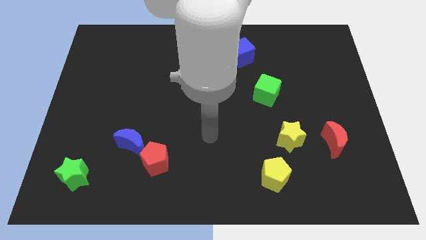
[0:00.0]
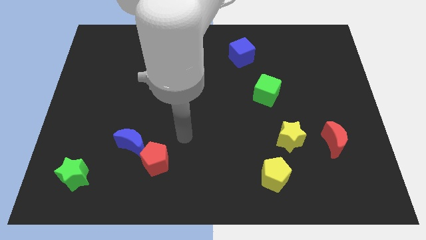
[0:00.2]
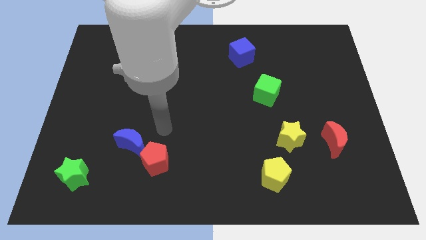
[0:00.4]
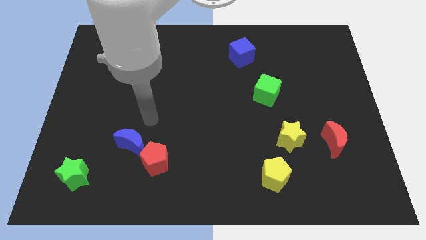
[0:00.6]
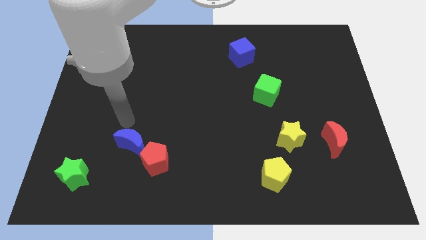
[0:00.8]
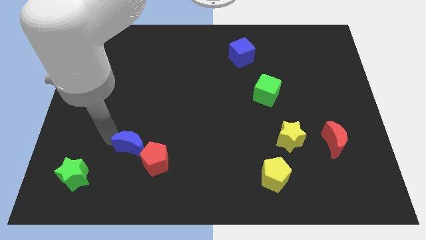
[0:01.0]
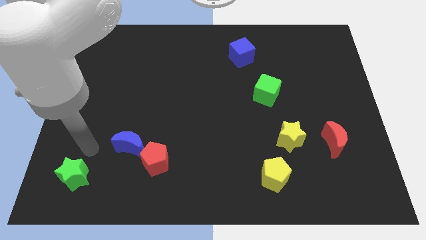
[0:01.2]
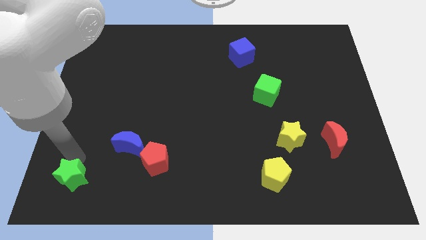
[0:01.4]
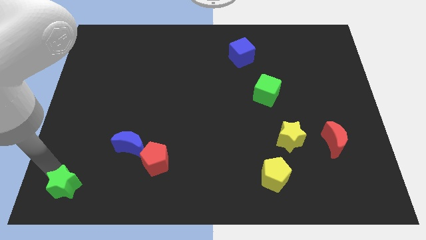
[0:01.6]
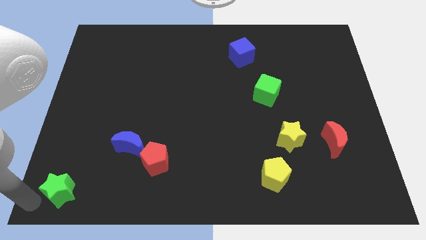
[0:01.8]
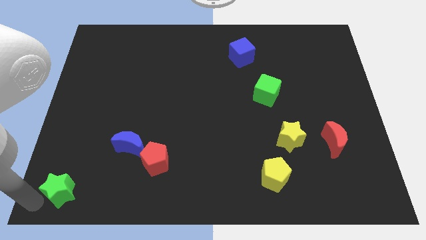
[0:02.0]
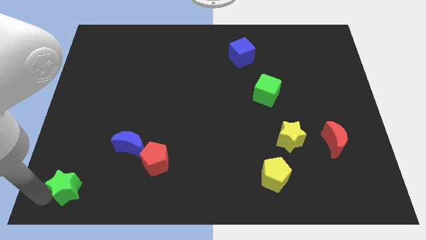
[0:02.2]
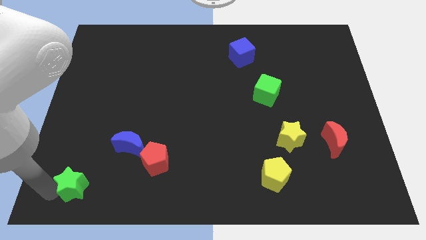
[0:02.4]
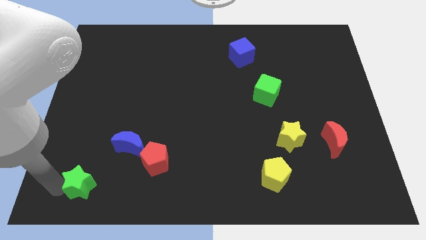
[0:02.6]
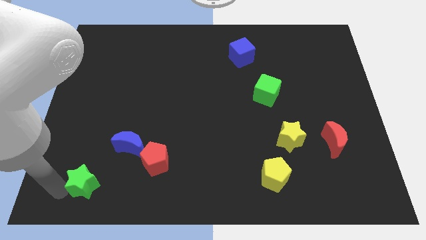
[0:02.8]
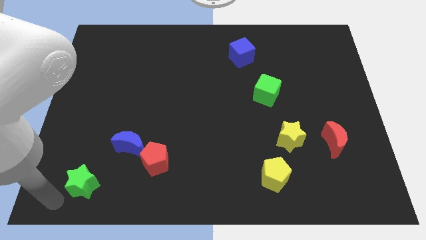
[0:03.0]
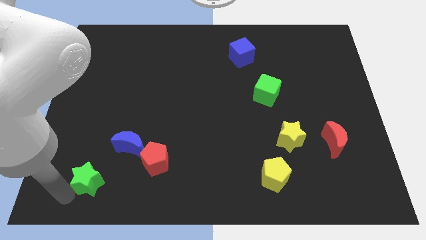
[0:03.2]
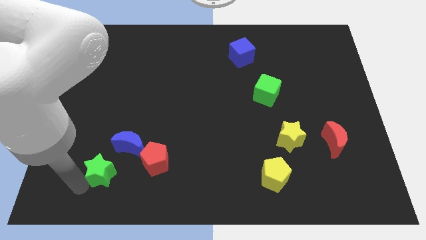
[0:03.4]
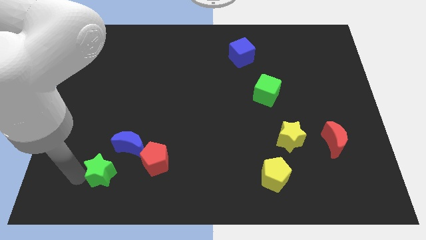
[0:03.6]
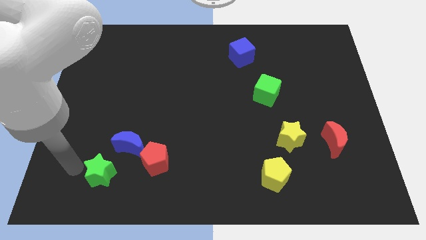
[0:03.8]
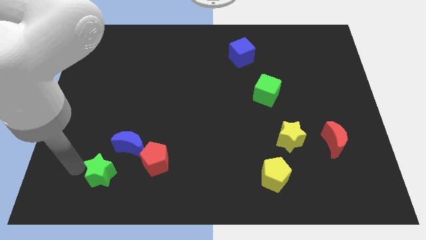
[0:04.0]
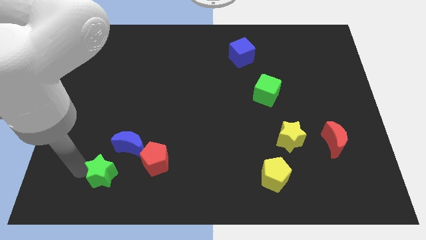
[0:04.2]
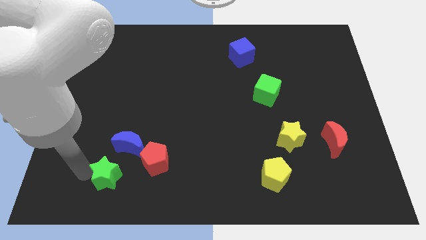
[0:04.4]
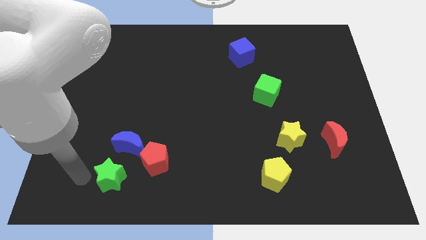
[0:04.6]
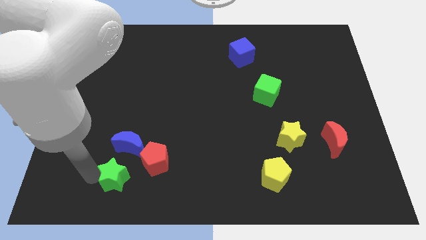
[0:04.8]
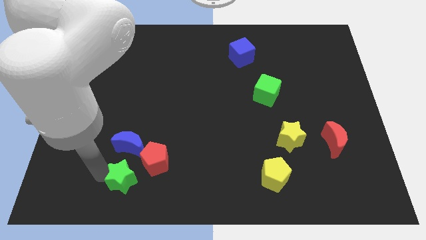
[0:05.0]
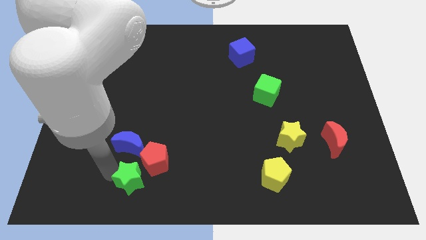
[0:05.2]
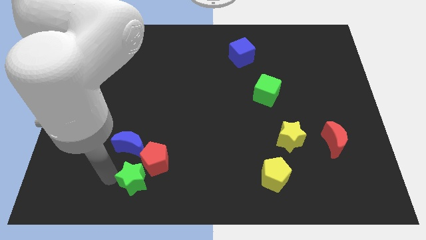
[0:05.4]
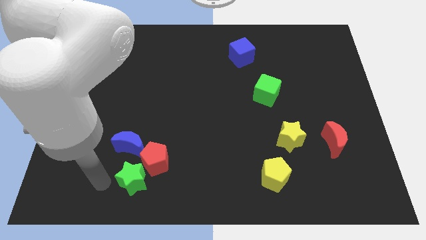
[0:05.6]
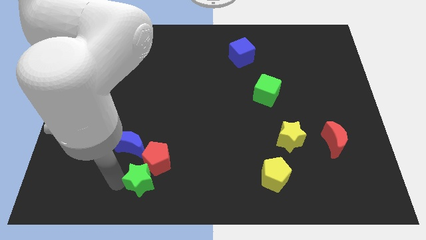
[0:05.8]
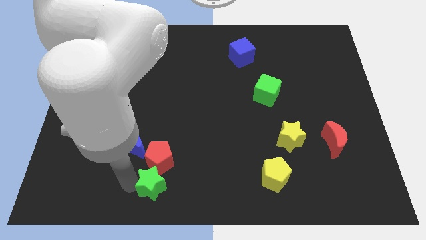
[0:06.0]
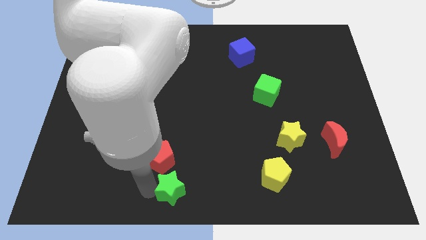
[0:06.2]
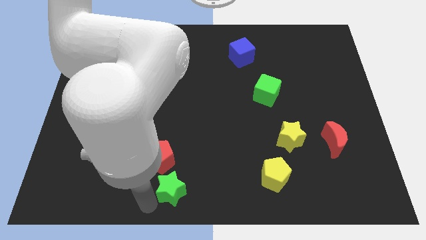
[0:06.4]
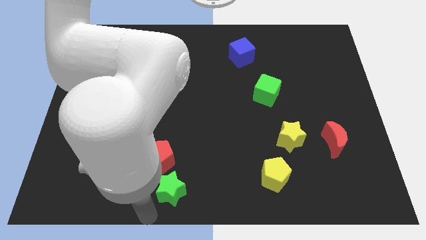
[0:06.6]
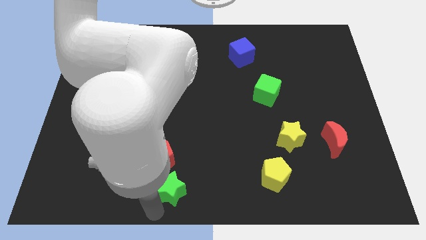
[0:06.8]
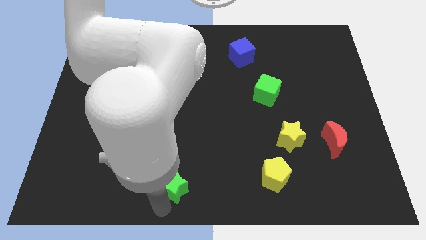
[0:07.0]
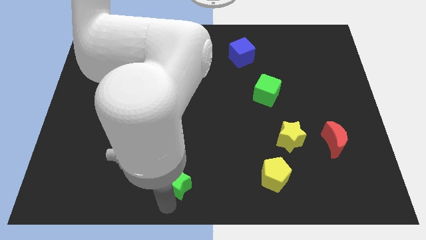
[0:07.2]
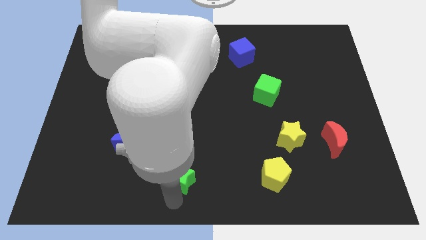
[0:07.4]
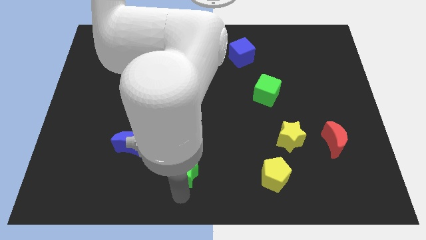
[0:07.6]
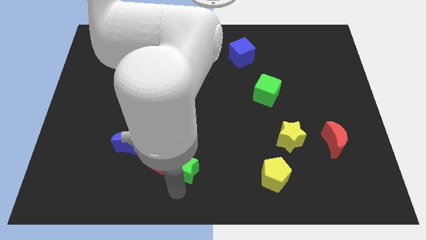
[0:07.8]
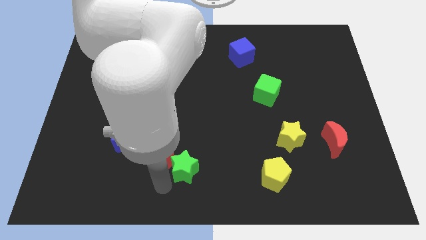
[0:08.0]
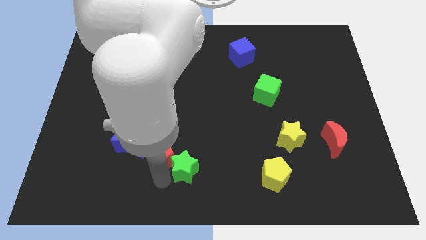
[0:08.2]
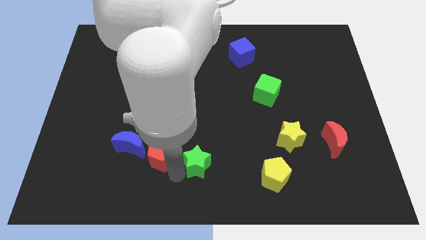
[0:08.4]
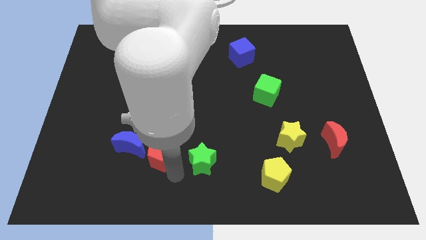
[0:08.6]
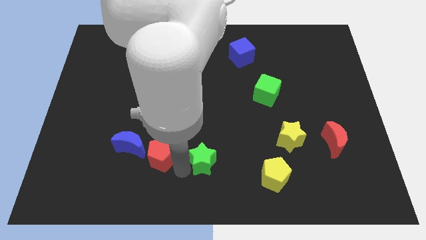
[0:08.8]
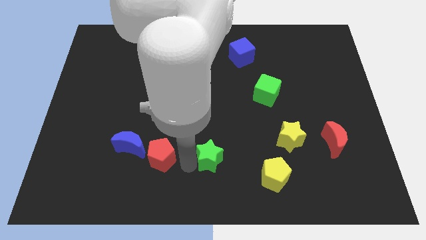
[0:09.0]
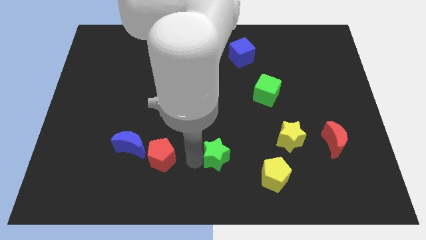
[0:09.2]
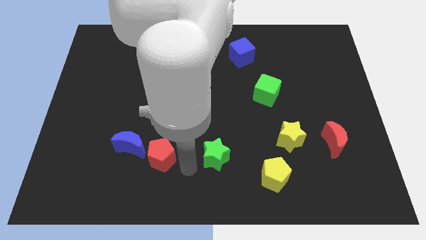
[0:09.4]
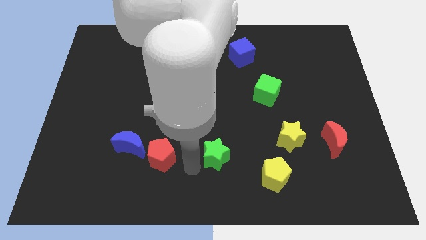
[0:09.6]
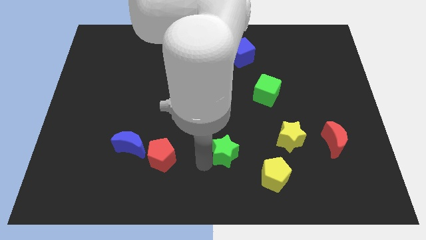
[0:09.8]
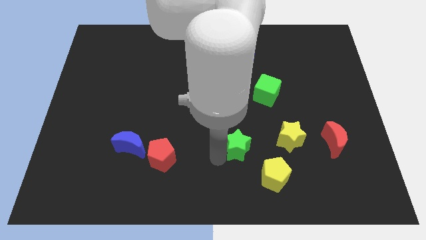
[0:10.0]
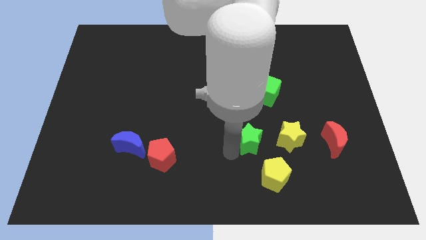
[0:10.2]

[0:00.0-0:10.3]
put the green star above the yellow pentagon

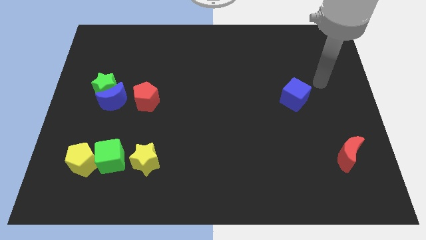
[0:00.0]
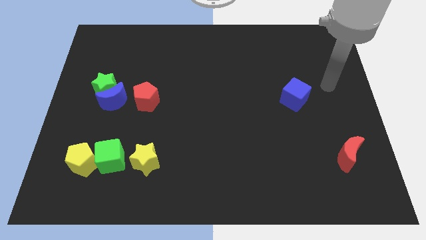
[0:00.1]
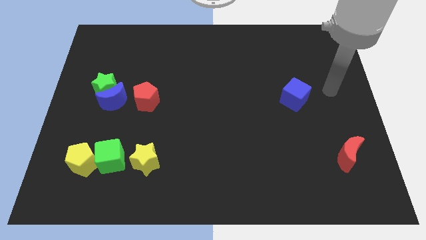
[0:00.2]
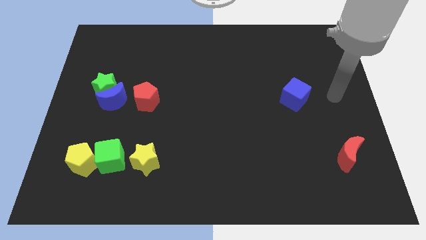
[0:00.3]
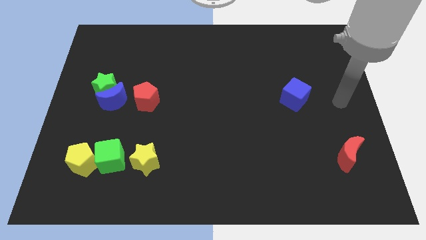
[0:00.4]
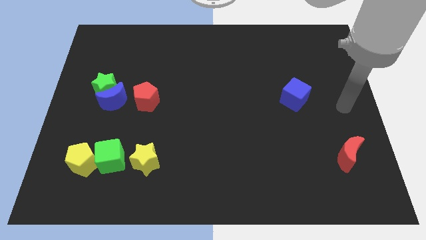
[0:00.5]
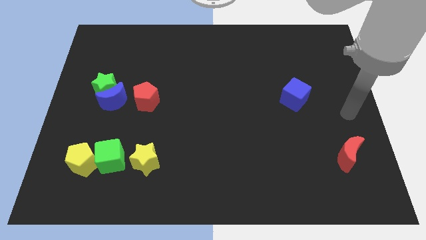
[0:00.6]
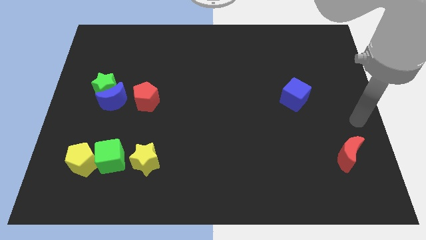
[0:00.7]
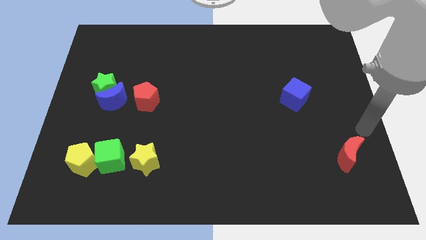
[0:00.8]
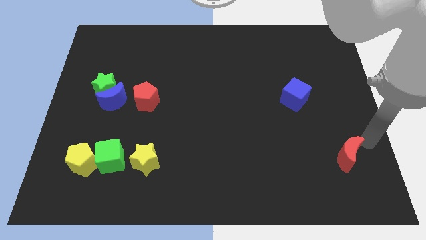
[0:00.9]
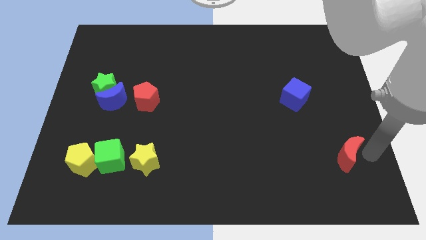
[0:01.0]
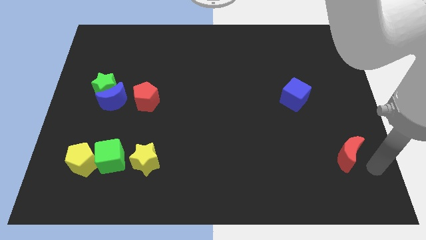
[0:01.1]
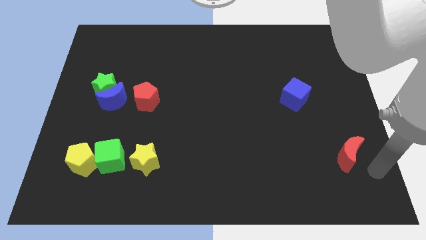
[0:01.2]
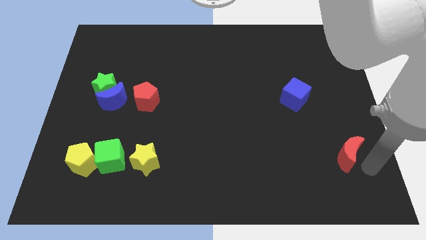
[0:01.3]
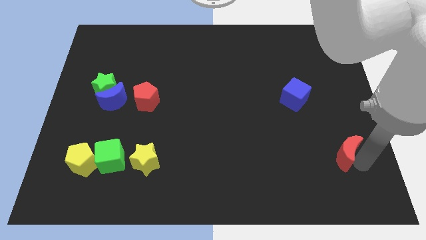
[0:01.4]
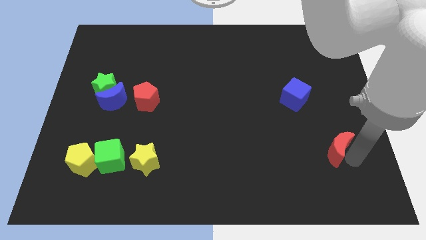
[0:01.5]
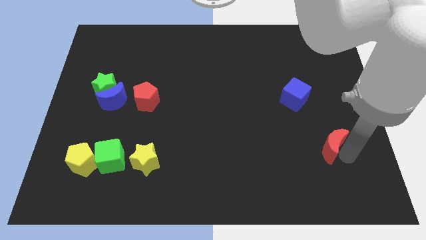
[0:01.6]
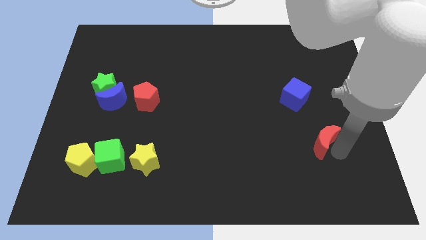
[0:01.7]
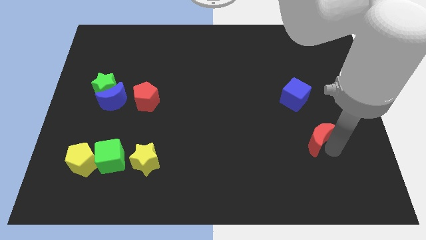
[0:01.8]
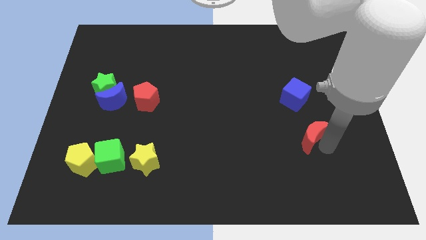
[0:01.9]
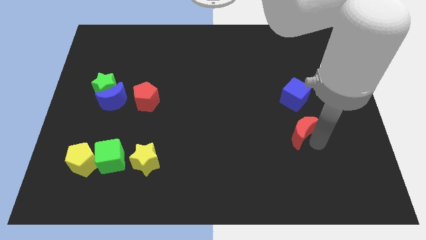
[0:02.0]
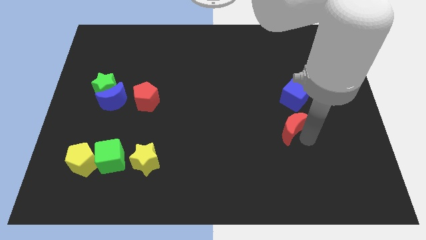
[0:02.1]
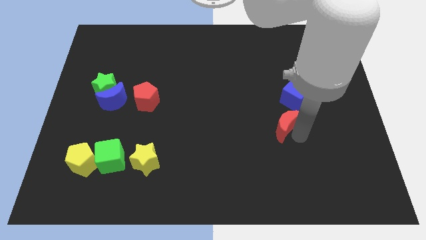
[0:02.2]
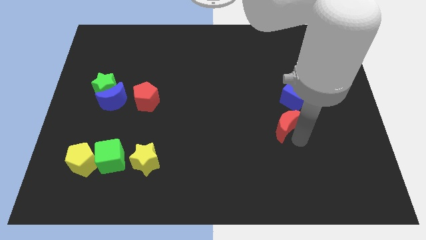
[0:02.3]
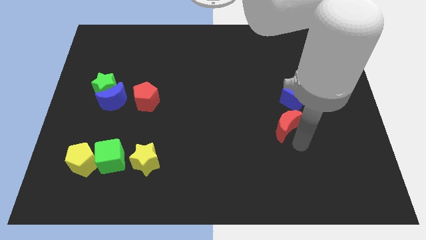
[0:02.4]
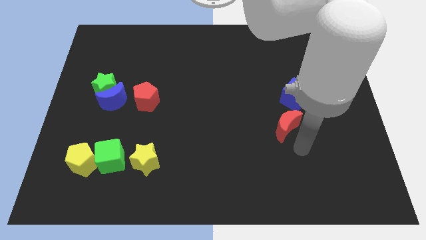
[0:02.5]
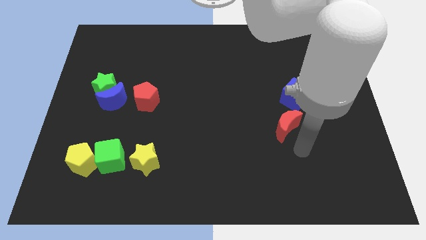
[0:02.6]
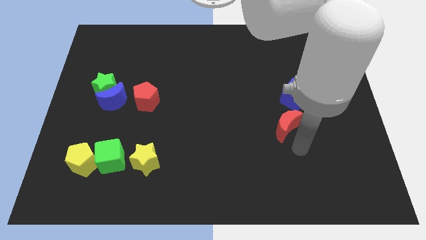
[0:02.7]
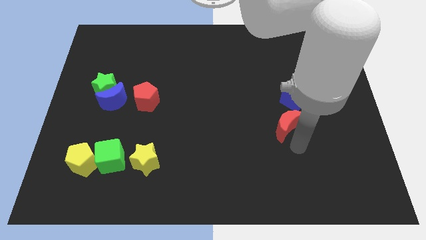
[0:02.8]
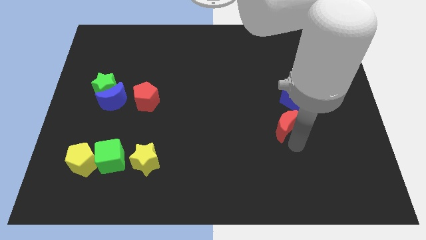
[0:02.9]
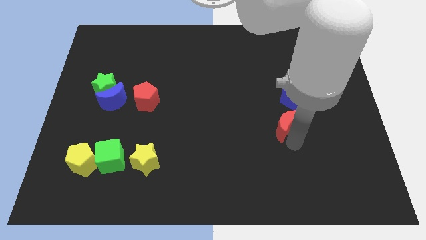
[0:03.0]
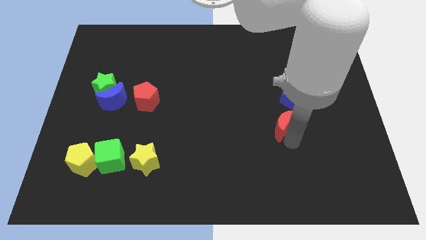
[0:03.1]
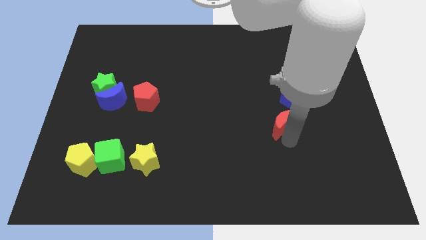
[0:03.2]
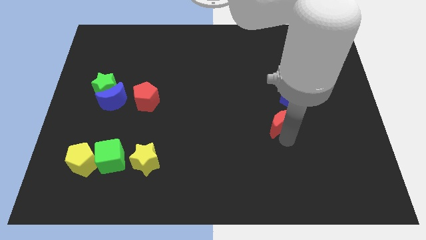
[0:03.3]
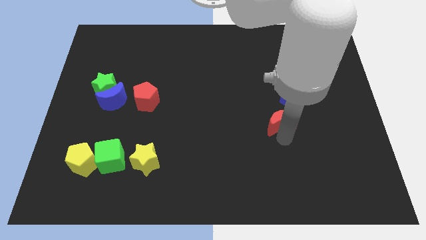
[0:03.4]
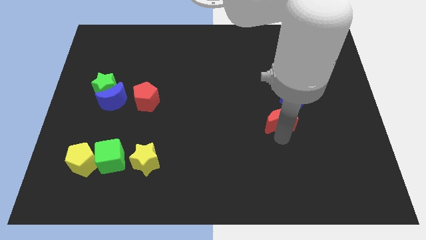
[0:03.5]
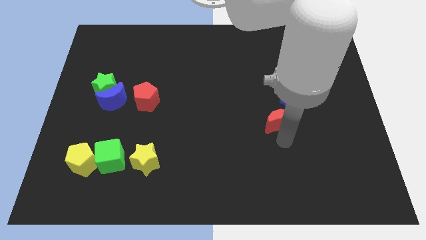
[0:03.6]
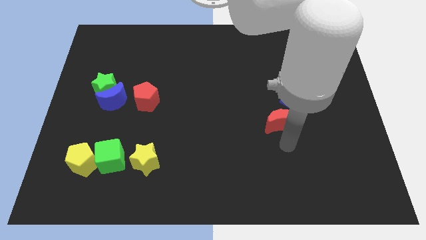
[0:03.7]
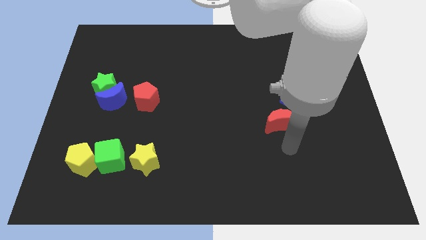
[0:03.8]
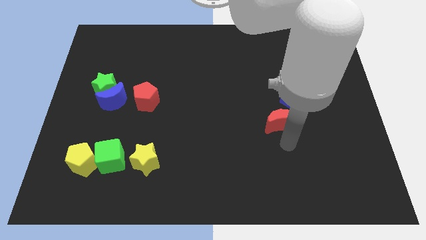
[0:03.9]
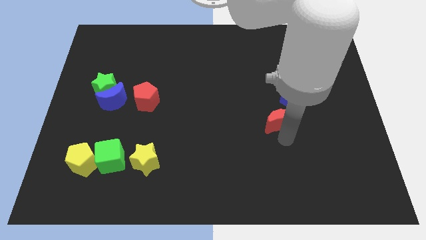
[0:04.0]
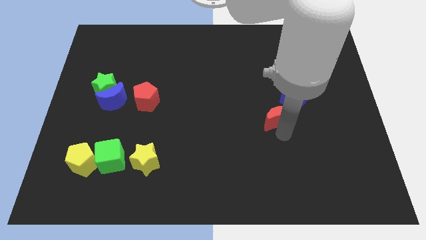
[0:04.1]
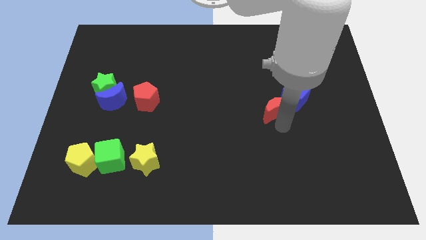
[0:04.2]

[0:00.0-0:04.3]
put the red moon left of the blue cube
